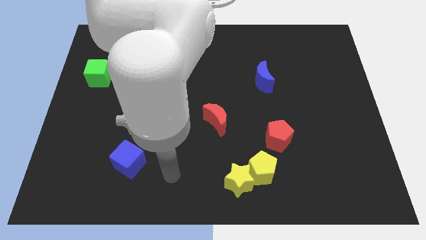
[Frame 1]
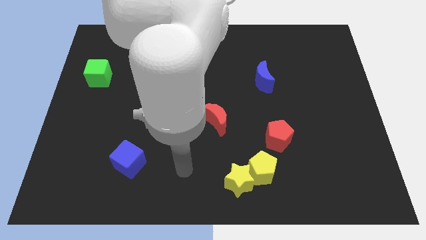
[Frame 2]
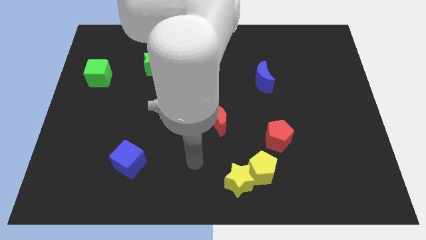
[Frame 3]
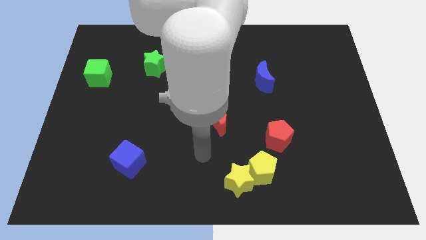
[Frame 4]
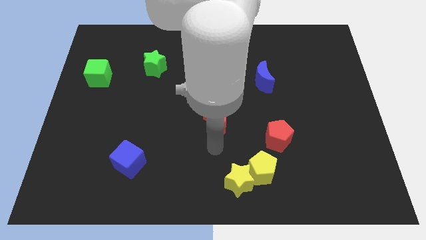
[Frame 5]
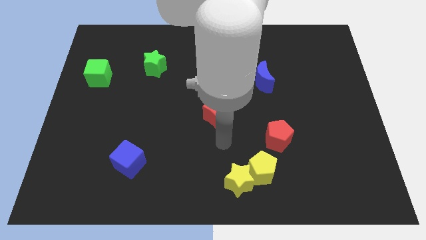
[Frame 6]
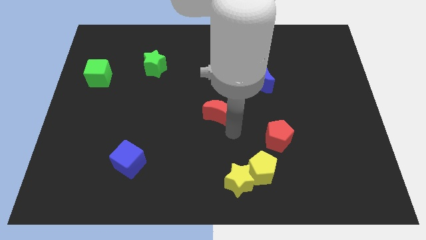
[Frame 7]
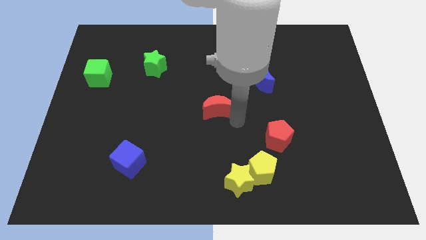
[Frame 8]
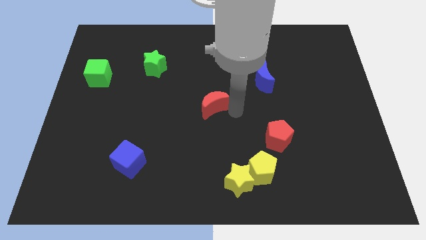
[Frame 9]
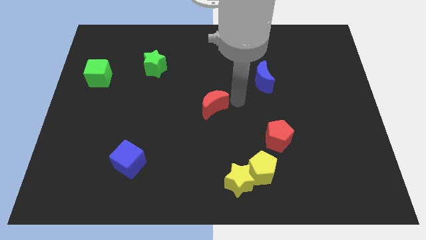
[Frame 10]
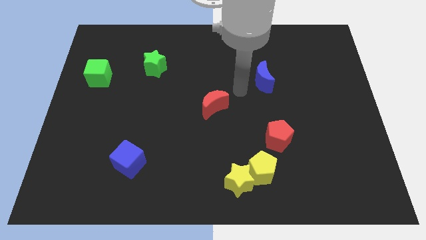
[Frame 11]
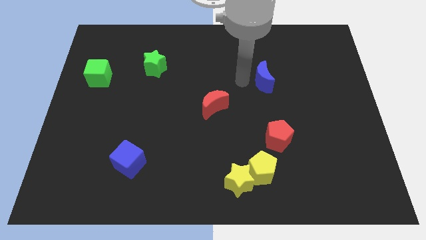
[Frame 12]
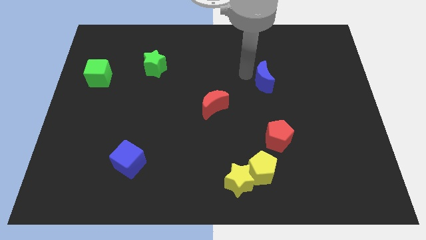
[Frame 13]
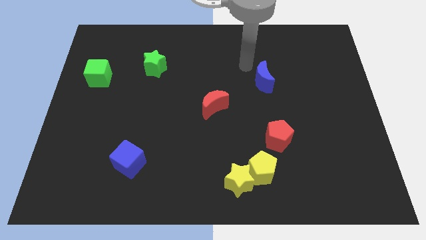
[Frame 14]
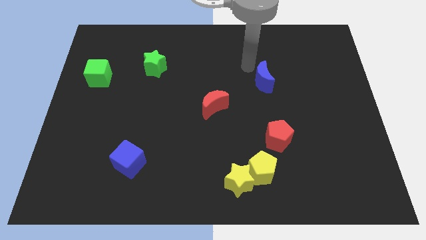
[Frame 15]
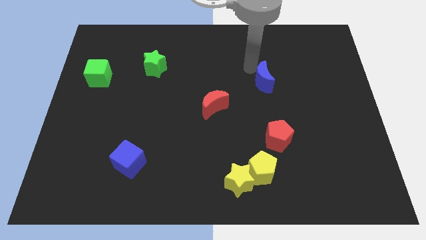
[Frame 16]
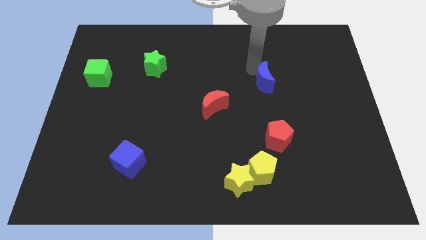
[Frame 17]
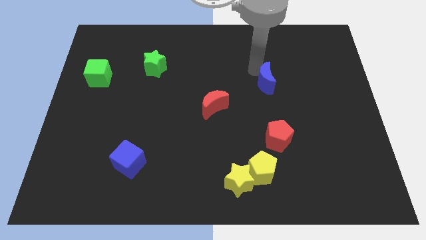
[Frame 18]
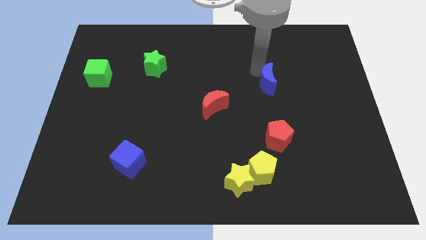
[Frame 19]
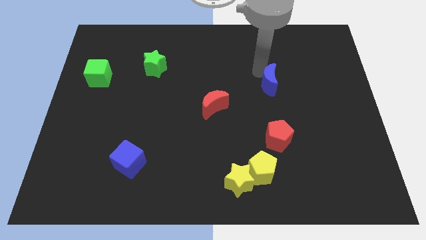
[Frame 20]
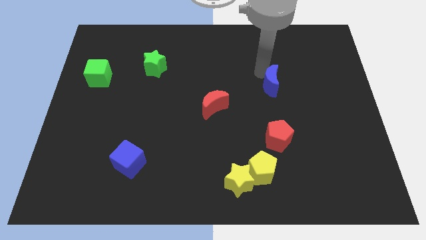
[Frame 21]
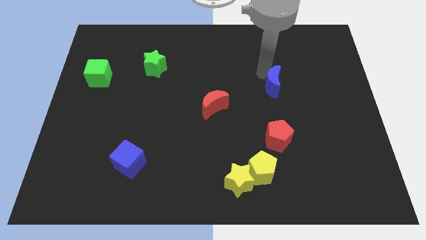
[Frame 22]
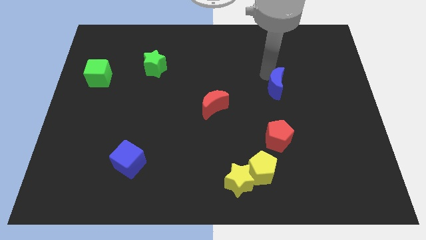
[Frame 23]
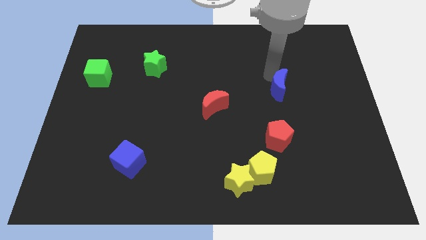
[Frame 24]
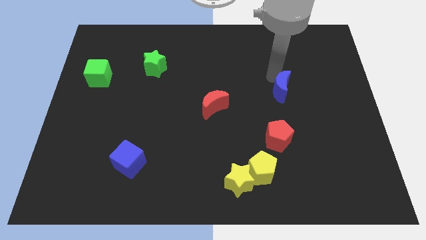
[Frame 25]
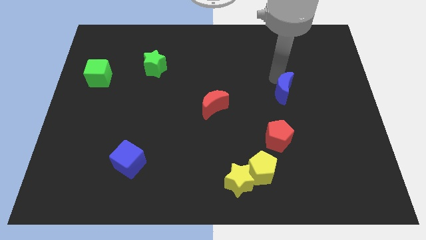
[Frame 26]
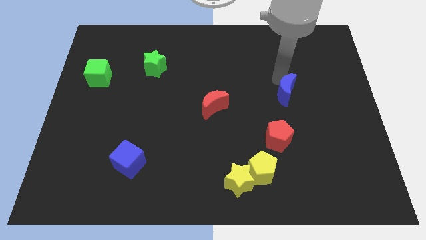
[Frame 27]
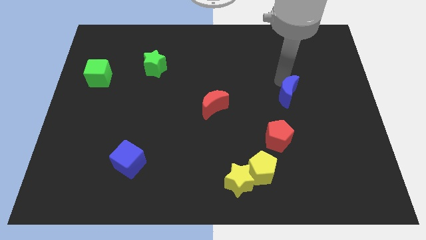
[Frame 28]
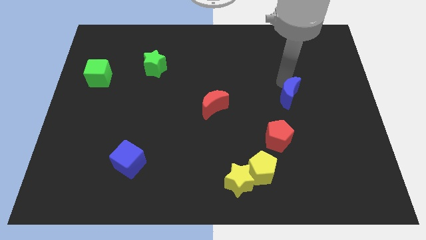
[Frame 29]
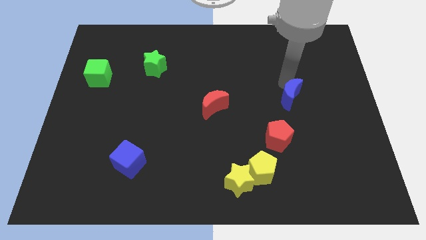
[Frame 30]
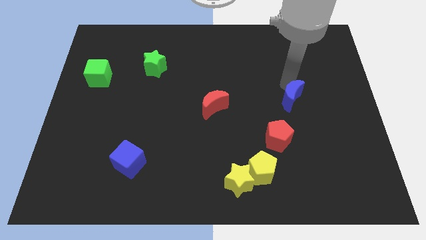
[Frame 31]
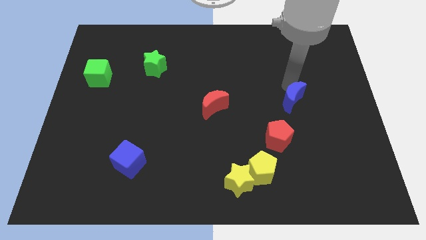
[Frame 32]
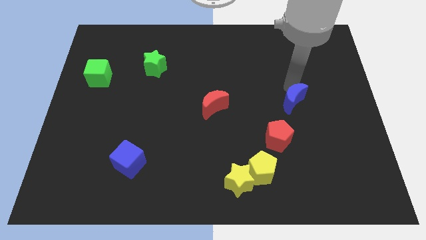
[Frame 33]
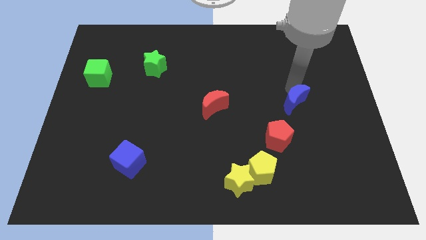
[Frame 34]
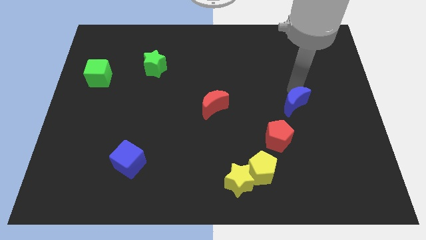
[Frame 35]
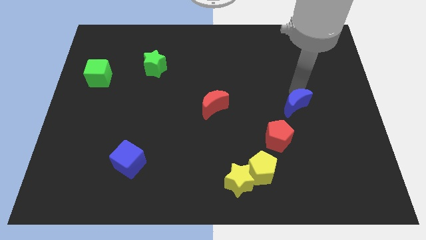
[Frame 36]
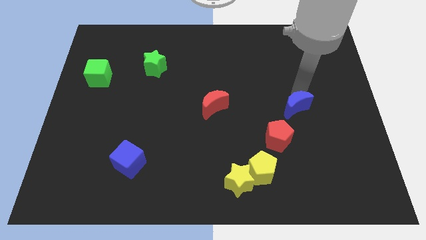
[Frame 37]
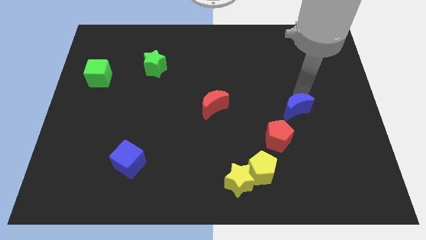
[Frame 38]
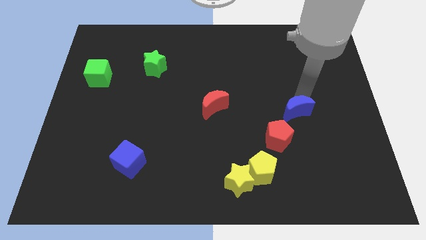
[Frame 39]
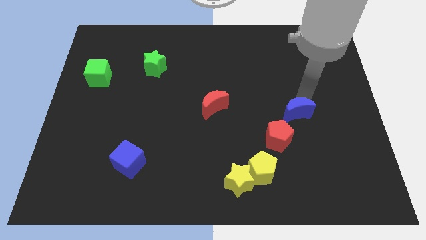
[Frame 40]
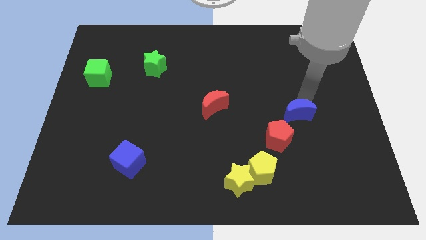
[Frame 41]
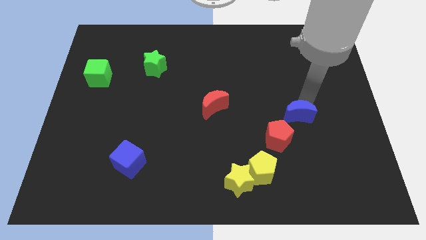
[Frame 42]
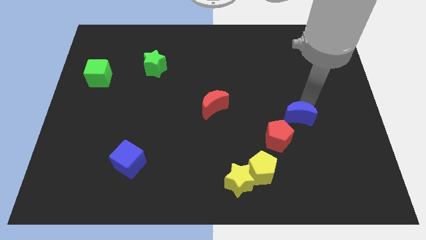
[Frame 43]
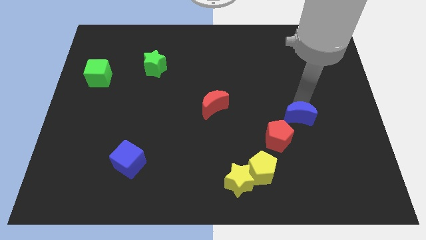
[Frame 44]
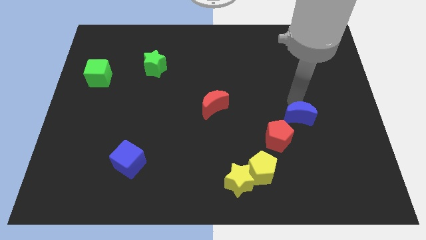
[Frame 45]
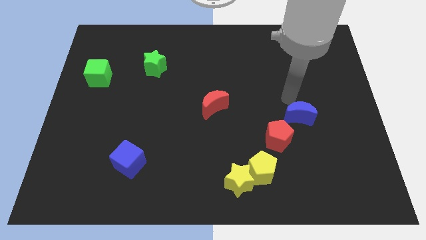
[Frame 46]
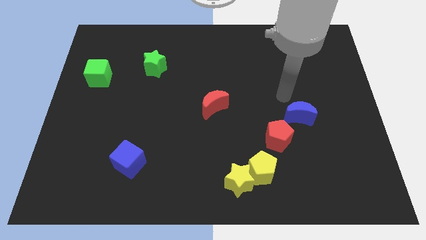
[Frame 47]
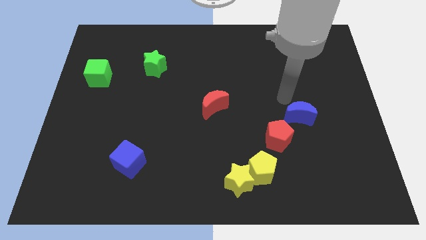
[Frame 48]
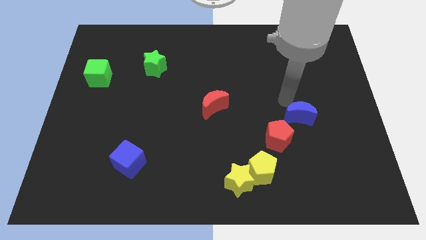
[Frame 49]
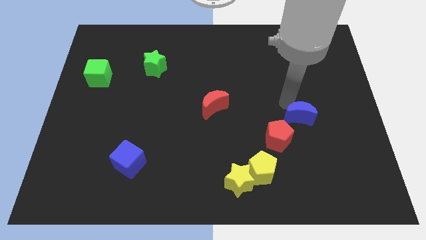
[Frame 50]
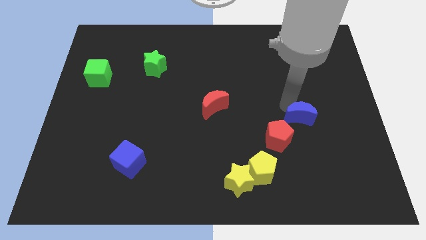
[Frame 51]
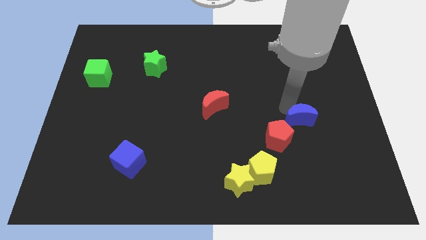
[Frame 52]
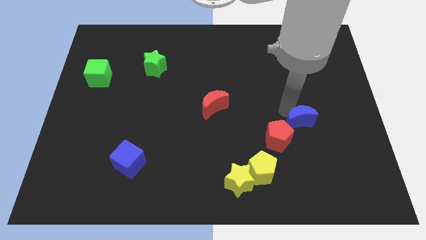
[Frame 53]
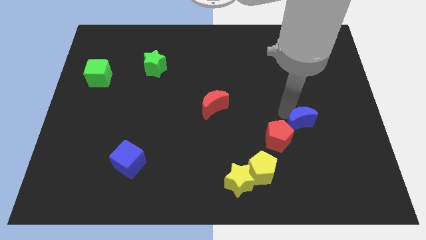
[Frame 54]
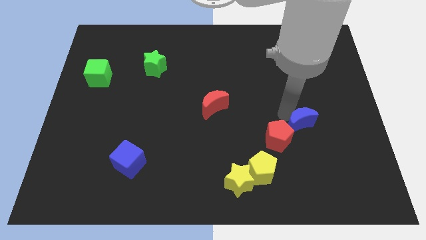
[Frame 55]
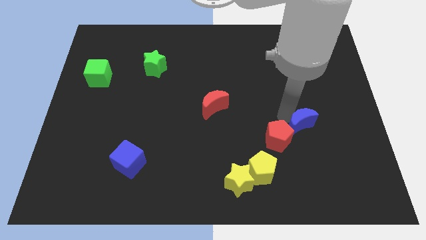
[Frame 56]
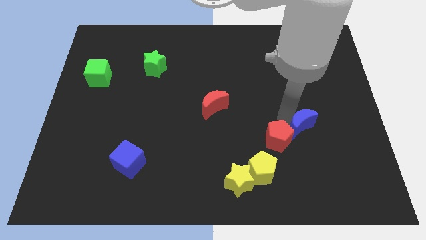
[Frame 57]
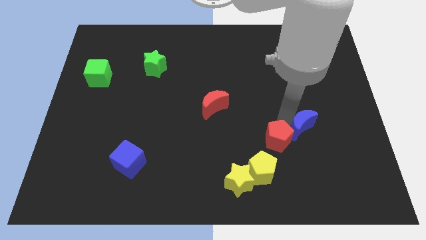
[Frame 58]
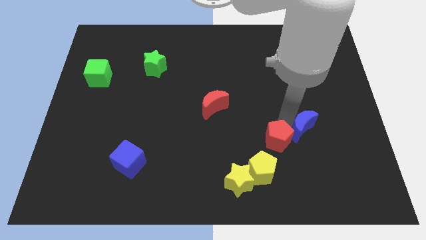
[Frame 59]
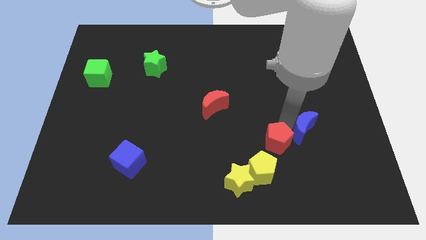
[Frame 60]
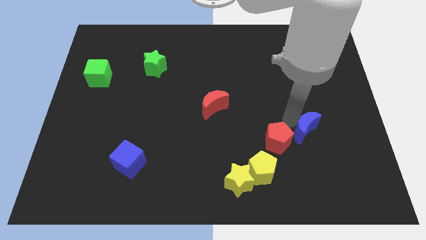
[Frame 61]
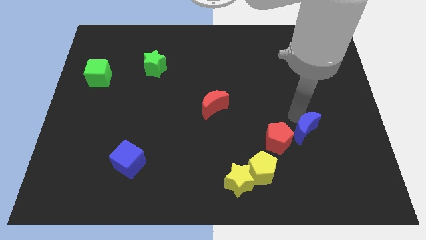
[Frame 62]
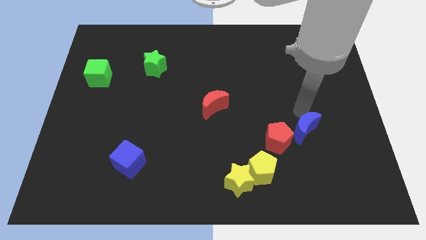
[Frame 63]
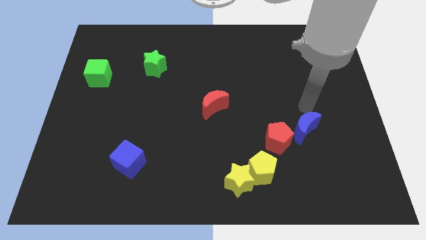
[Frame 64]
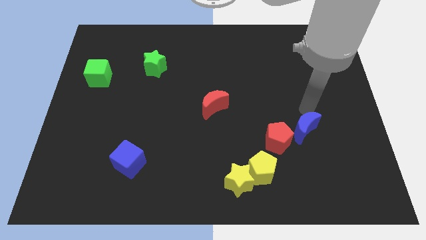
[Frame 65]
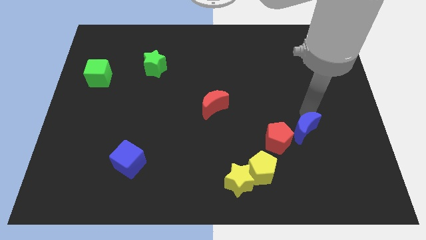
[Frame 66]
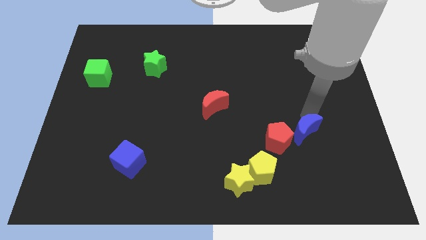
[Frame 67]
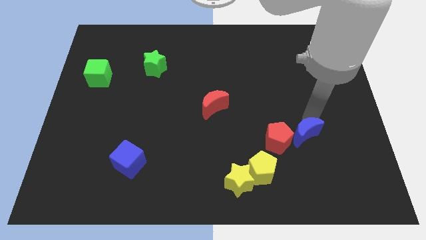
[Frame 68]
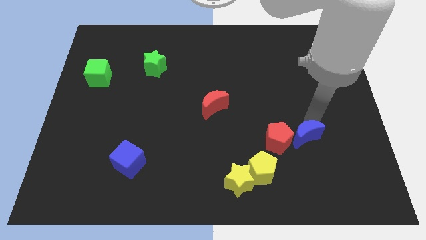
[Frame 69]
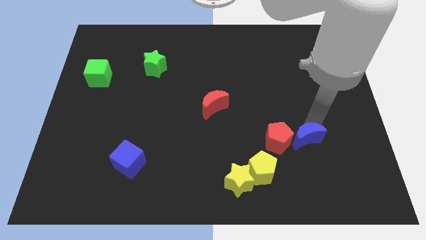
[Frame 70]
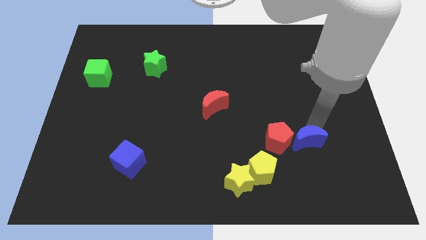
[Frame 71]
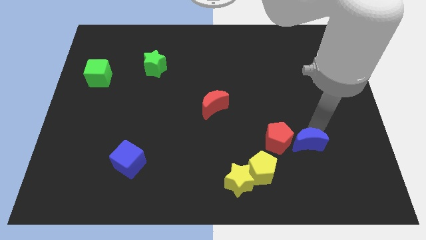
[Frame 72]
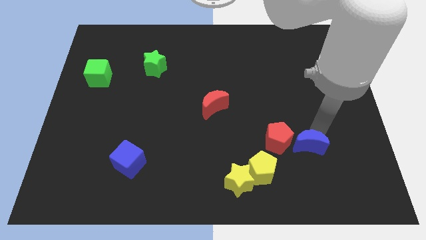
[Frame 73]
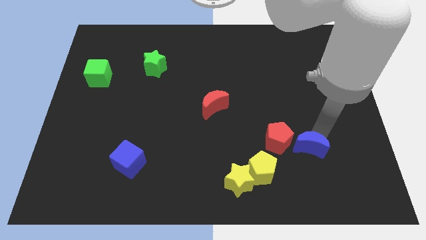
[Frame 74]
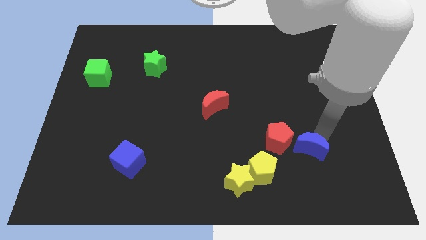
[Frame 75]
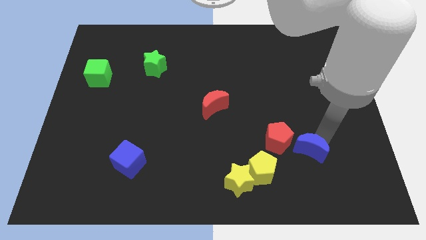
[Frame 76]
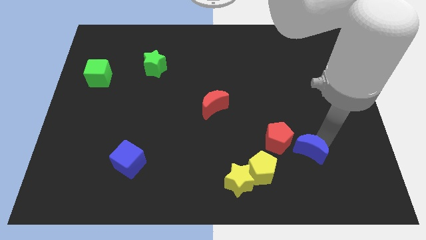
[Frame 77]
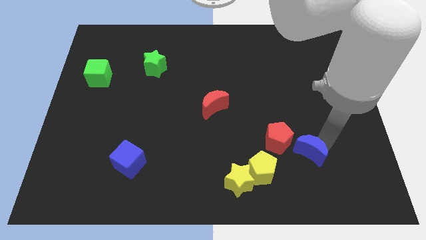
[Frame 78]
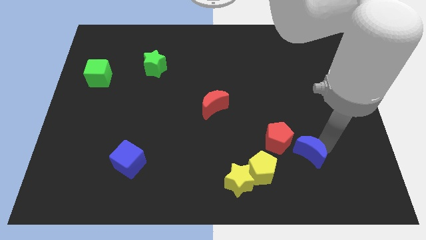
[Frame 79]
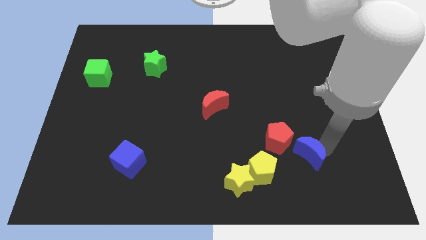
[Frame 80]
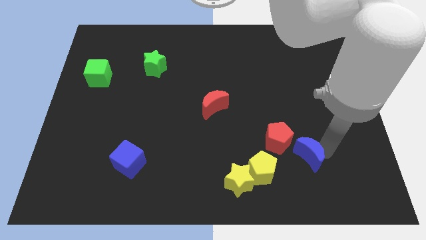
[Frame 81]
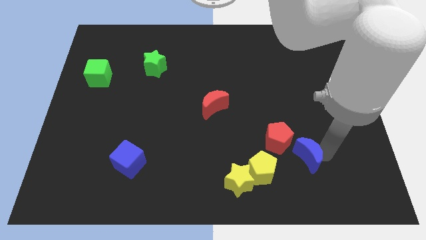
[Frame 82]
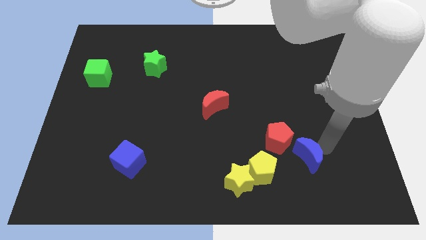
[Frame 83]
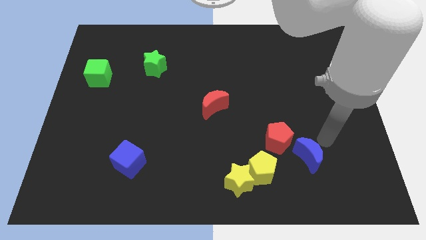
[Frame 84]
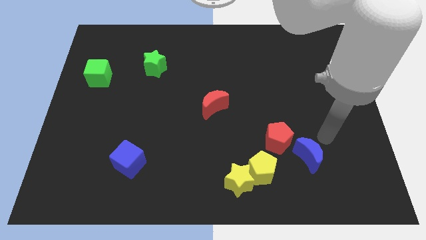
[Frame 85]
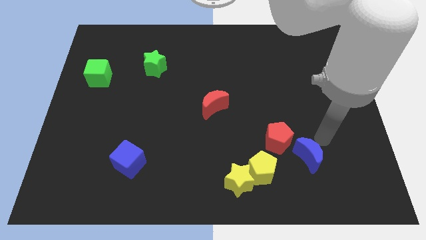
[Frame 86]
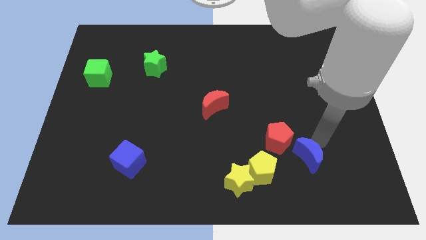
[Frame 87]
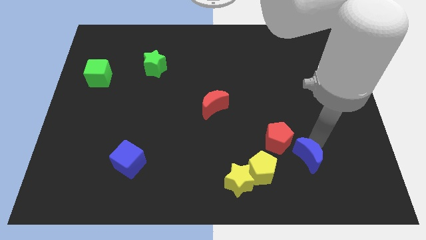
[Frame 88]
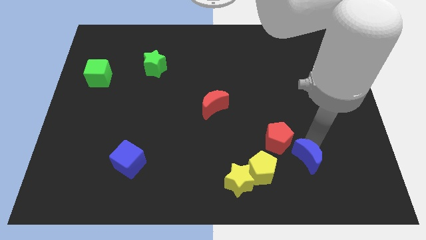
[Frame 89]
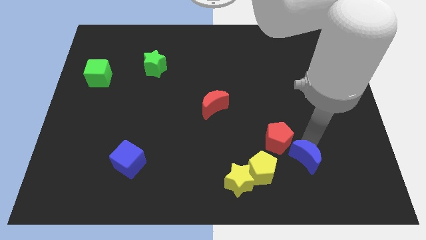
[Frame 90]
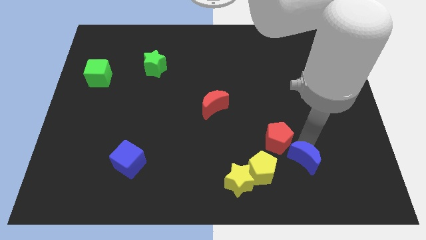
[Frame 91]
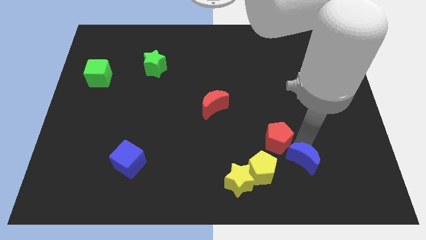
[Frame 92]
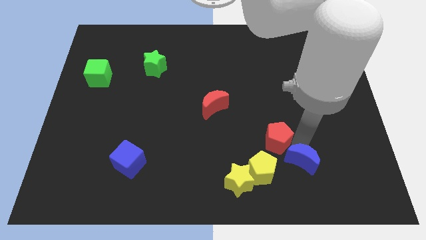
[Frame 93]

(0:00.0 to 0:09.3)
move the blue moon to the bottom side of the red pentagon
